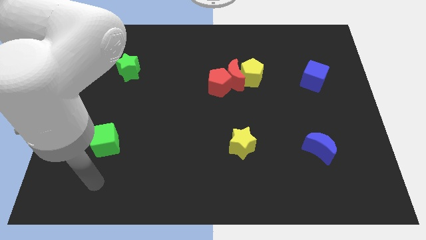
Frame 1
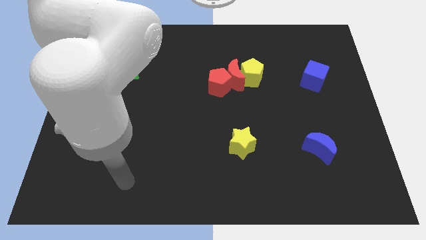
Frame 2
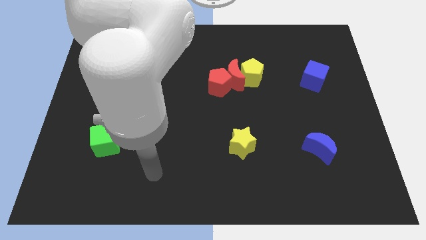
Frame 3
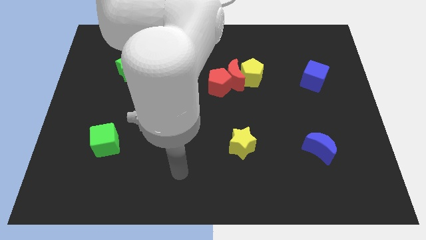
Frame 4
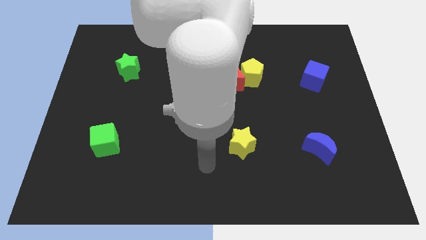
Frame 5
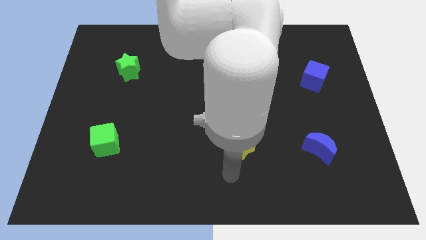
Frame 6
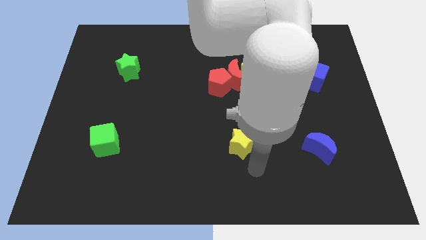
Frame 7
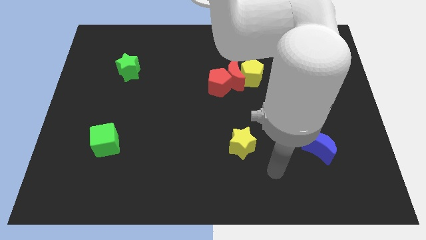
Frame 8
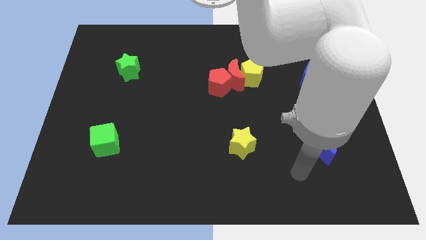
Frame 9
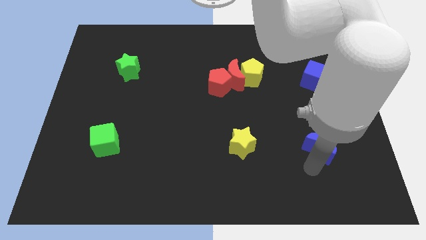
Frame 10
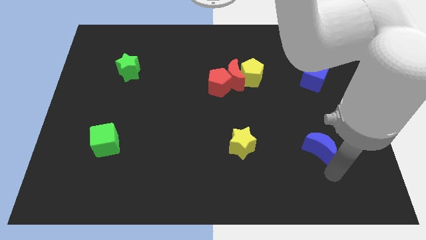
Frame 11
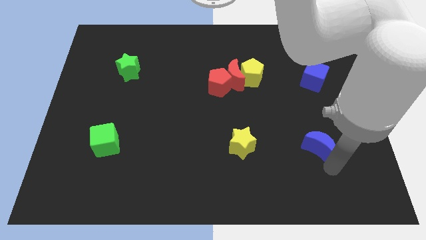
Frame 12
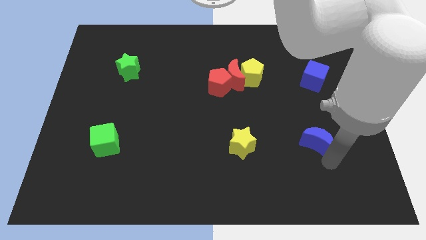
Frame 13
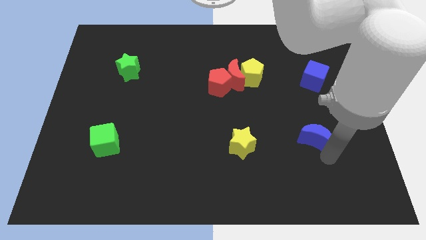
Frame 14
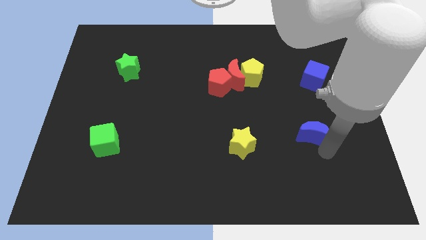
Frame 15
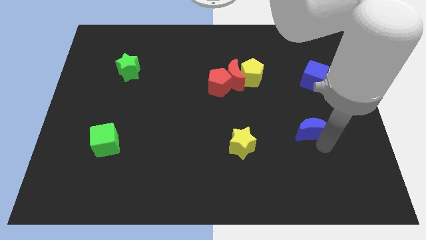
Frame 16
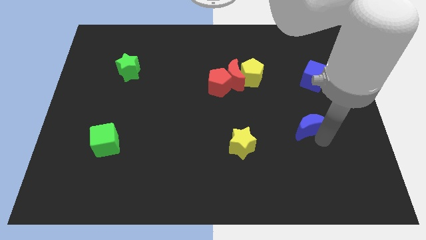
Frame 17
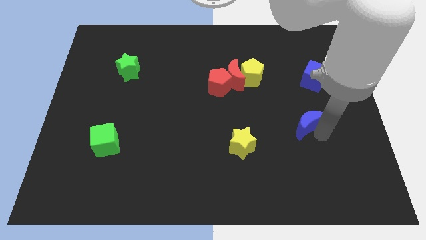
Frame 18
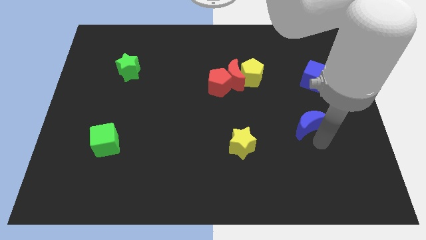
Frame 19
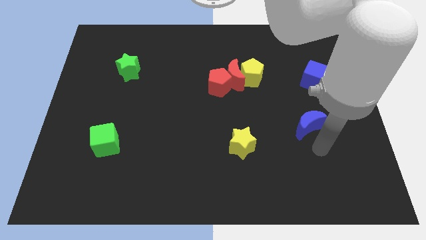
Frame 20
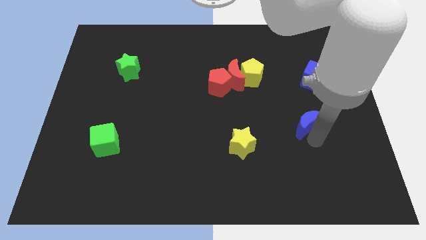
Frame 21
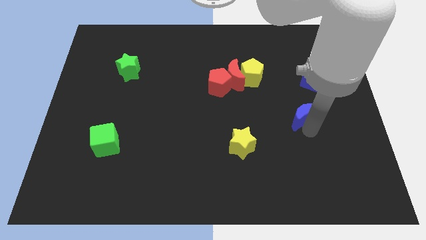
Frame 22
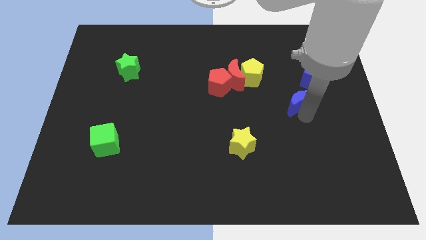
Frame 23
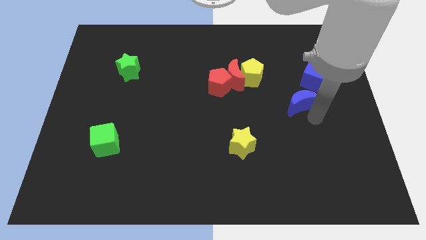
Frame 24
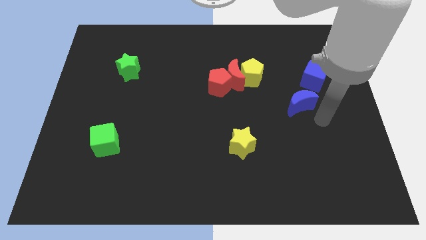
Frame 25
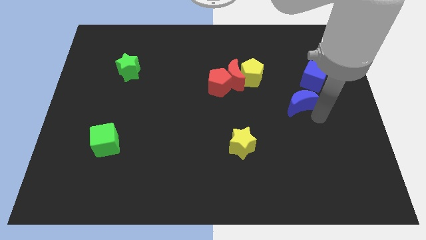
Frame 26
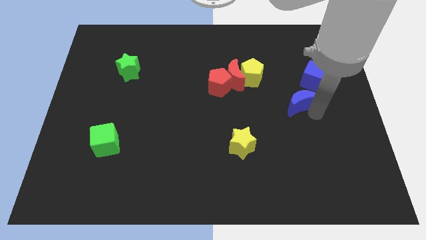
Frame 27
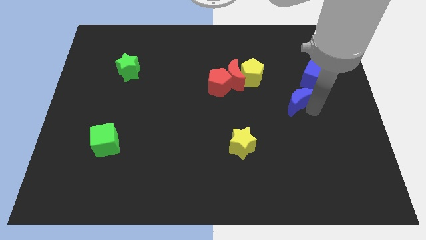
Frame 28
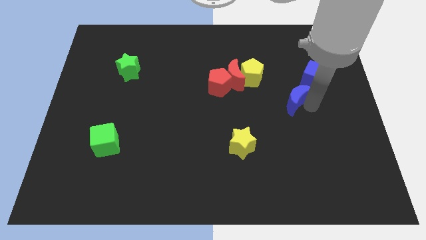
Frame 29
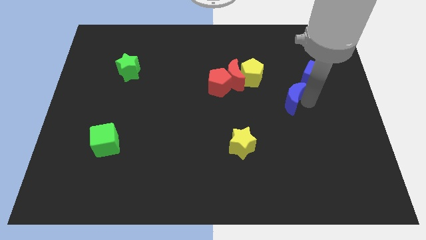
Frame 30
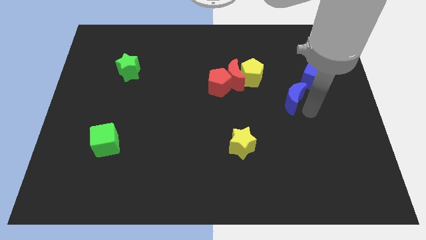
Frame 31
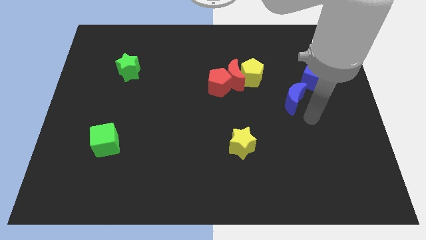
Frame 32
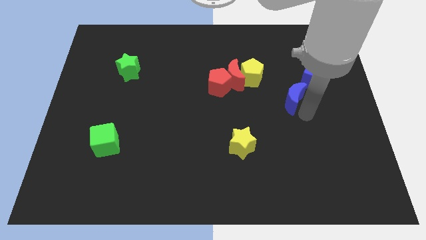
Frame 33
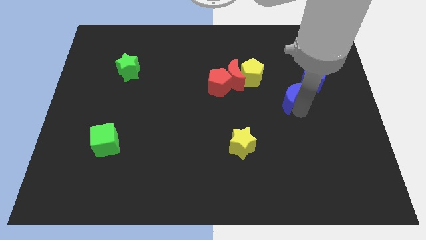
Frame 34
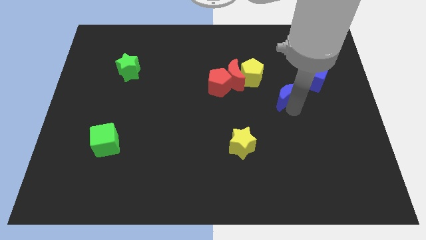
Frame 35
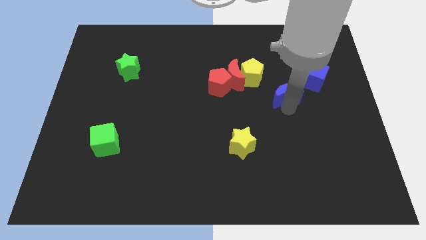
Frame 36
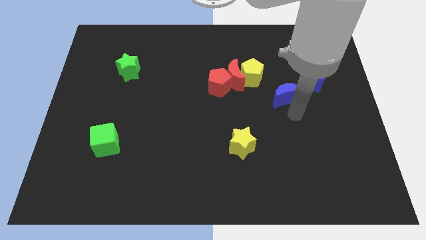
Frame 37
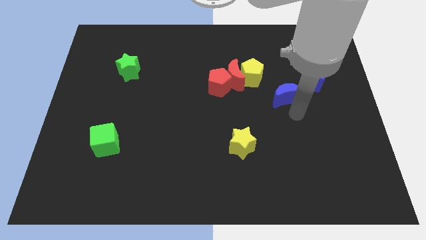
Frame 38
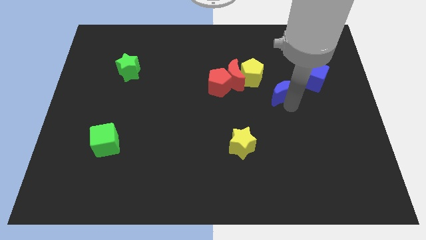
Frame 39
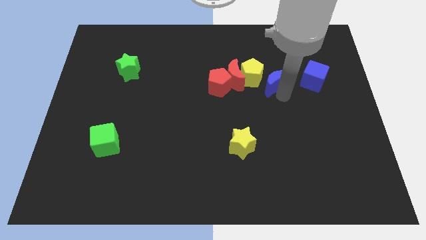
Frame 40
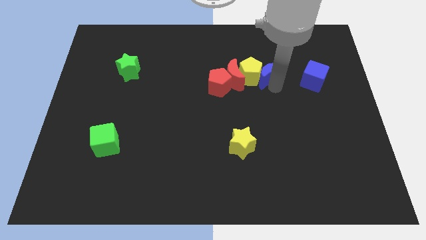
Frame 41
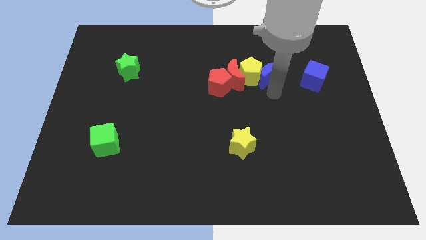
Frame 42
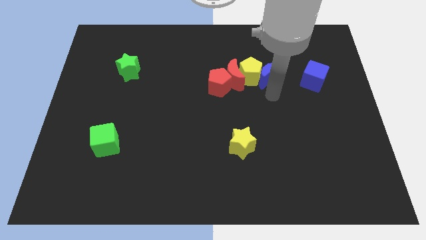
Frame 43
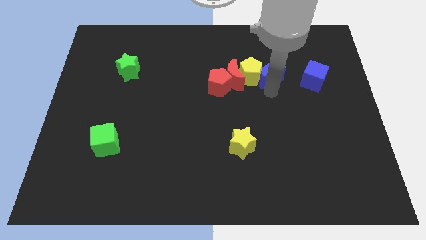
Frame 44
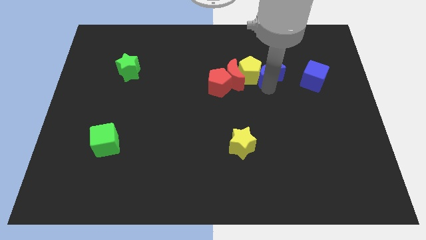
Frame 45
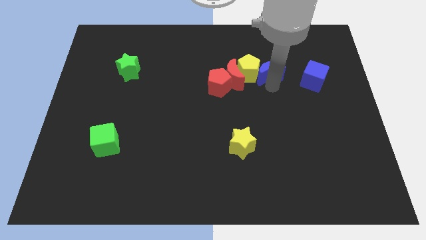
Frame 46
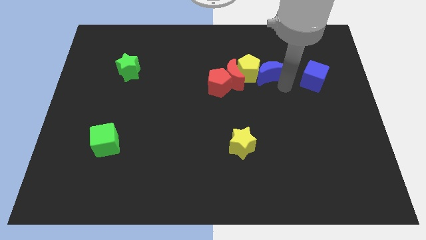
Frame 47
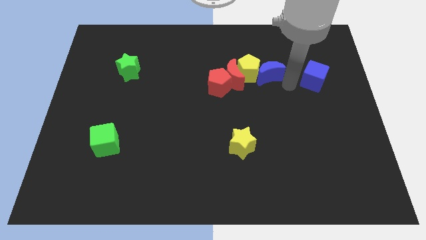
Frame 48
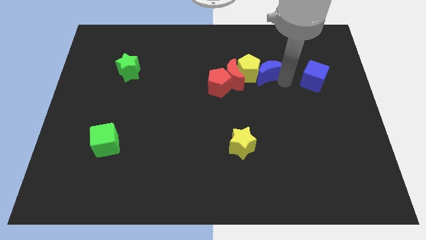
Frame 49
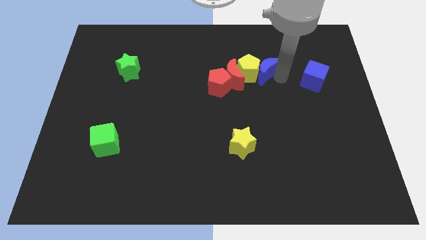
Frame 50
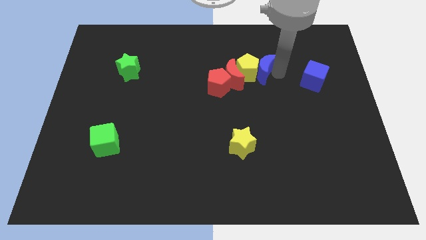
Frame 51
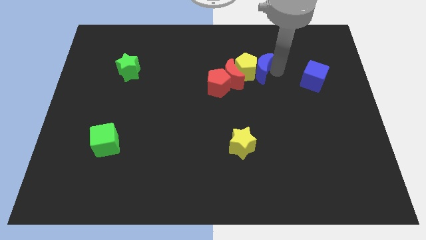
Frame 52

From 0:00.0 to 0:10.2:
slide the blue moon upwards and left

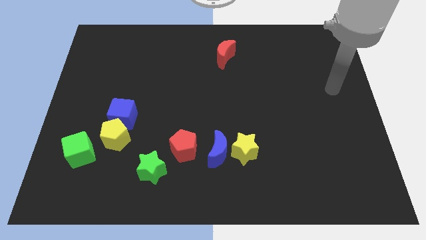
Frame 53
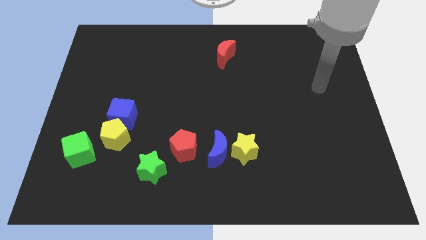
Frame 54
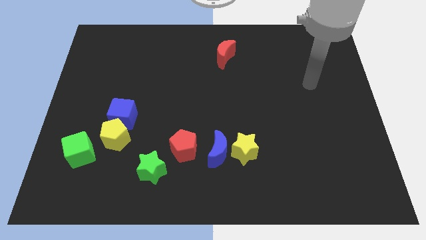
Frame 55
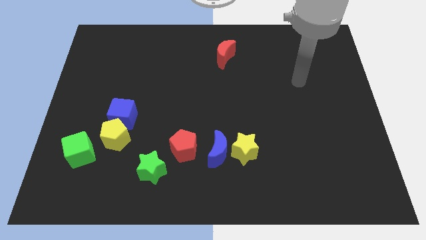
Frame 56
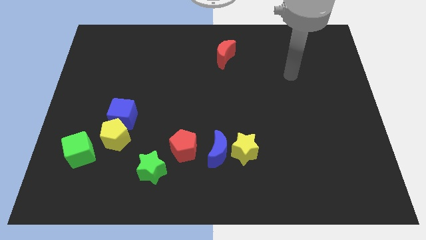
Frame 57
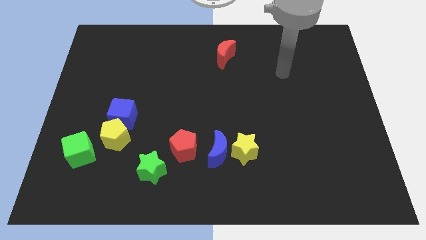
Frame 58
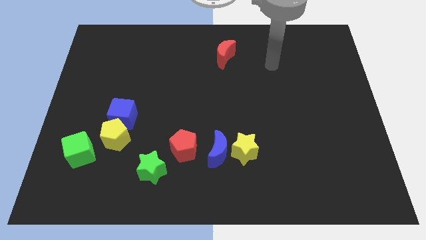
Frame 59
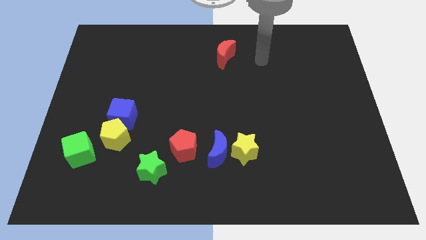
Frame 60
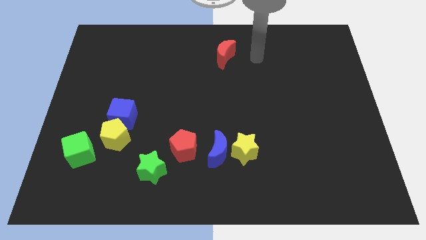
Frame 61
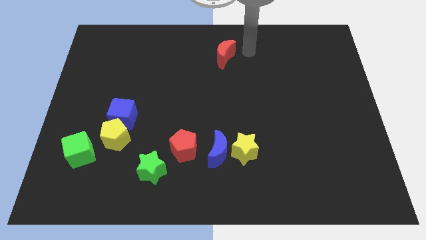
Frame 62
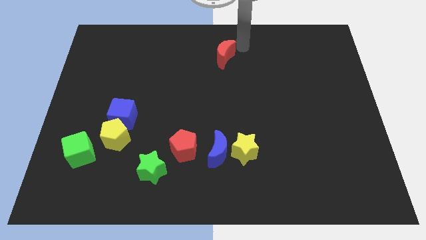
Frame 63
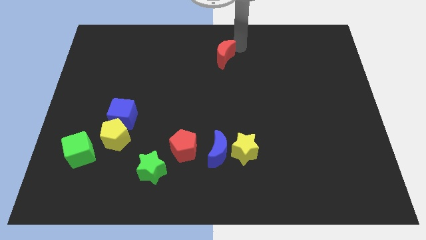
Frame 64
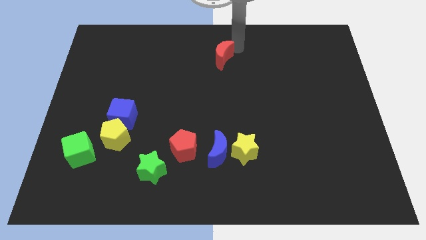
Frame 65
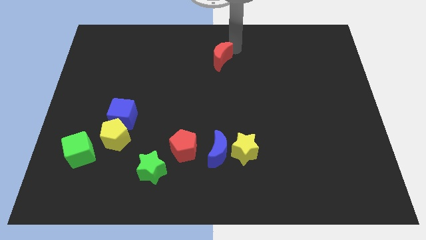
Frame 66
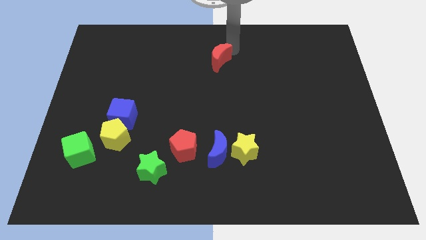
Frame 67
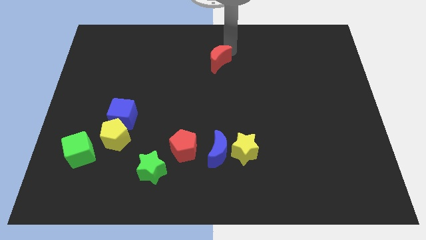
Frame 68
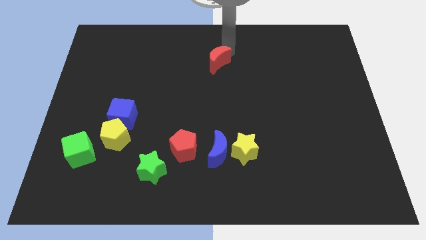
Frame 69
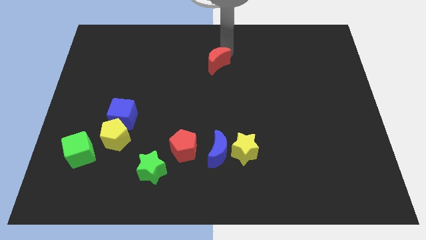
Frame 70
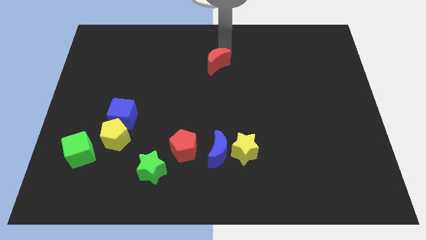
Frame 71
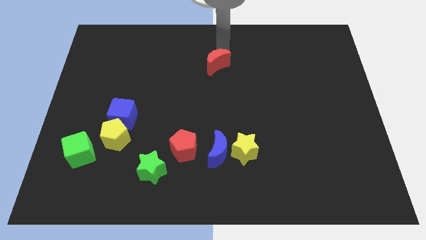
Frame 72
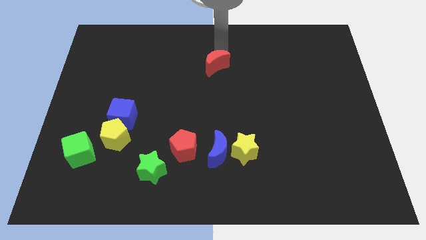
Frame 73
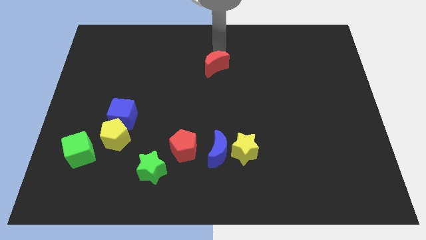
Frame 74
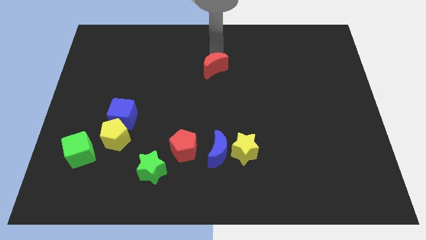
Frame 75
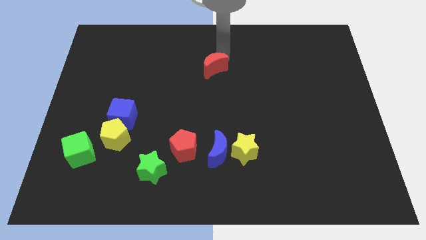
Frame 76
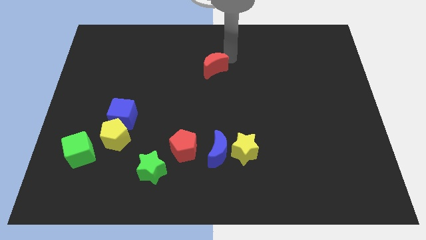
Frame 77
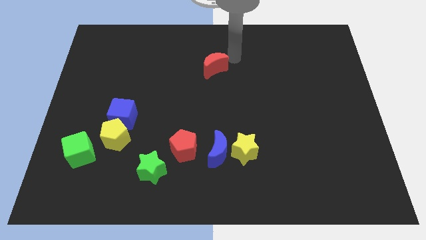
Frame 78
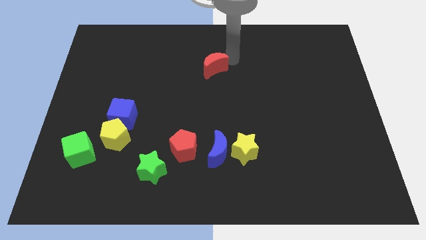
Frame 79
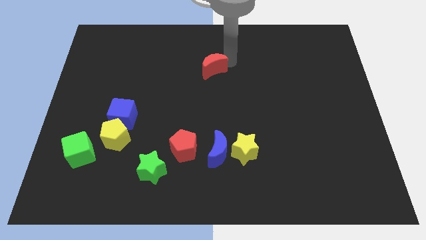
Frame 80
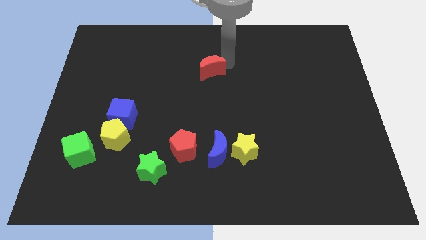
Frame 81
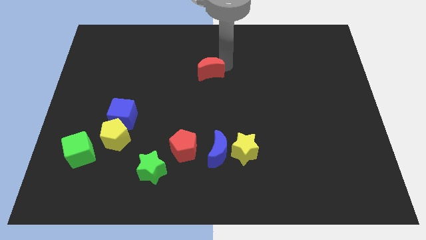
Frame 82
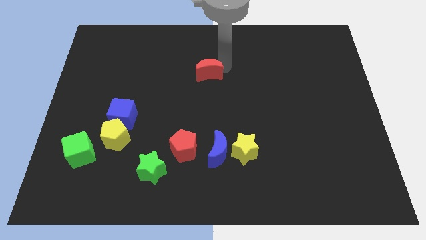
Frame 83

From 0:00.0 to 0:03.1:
slightly slide the red moon downwards and then to the left
